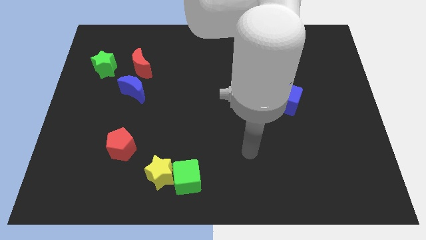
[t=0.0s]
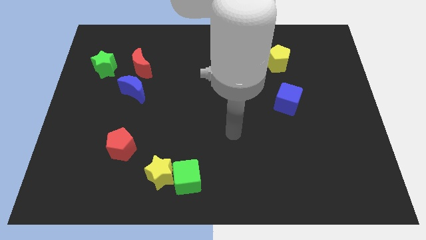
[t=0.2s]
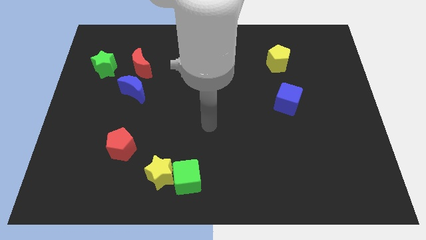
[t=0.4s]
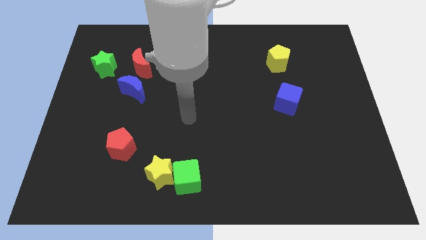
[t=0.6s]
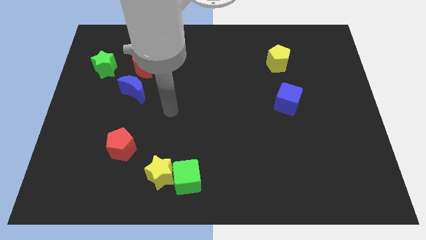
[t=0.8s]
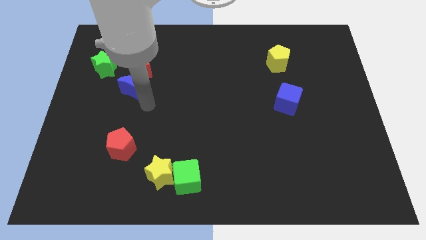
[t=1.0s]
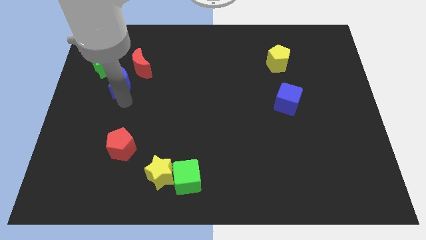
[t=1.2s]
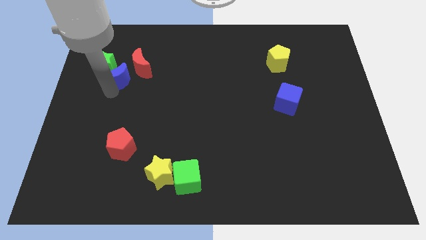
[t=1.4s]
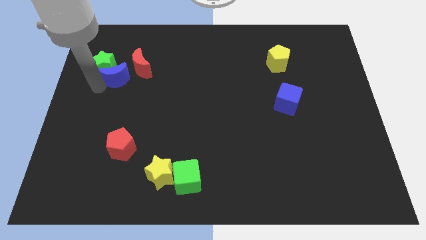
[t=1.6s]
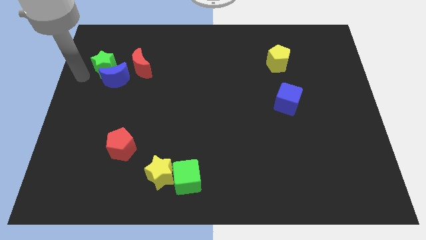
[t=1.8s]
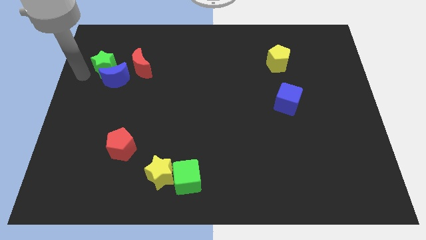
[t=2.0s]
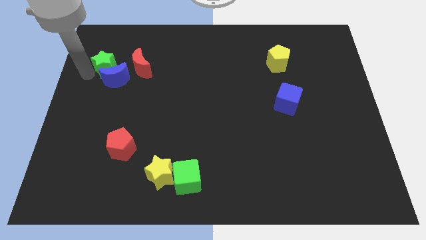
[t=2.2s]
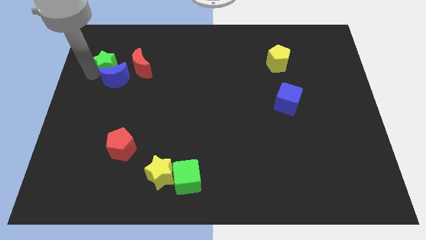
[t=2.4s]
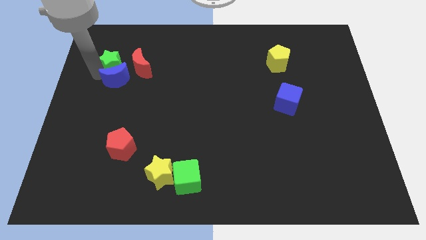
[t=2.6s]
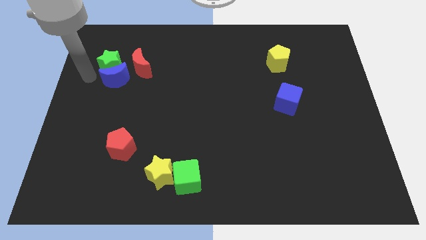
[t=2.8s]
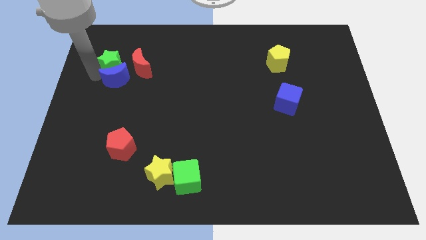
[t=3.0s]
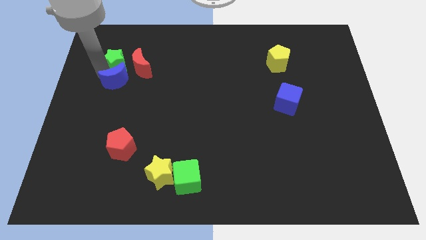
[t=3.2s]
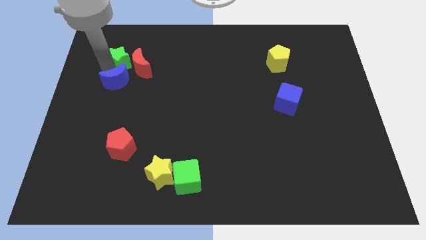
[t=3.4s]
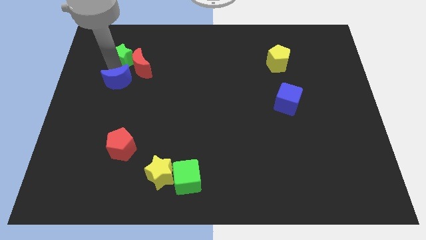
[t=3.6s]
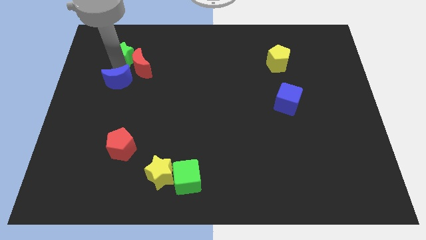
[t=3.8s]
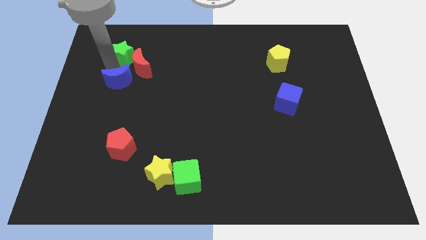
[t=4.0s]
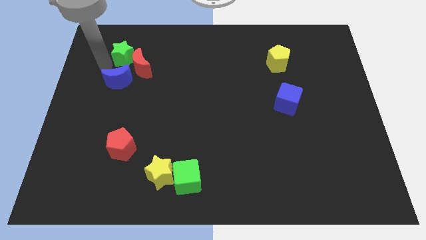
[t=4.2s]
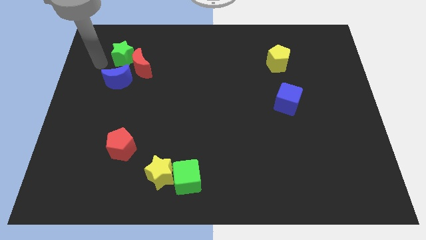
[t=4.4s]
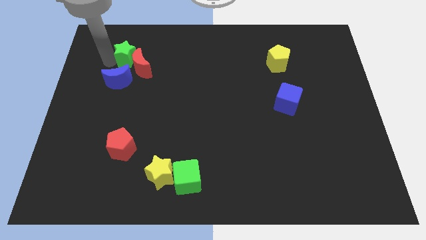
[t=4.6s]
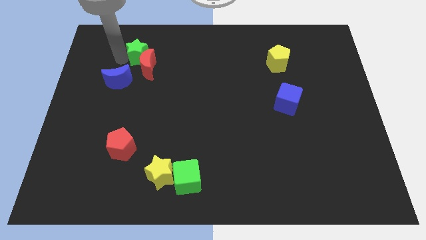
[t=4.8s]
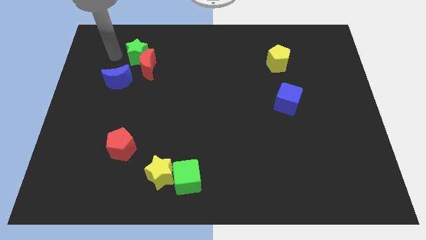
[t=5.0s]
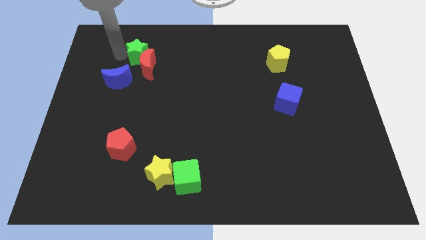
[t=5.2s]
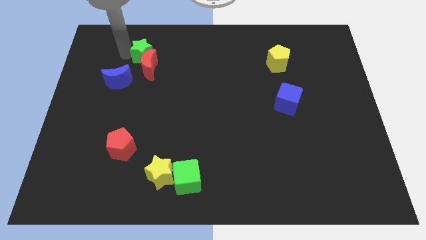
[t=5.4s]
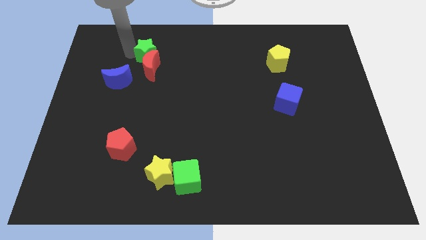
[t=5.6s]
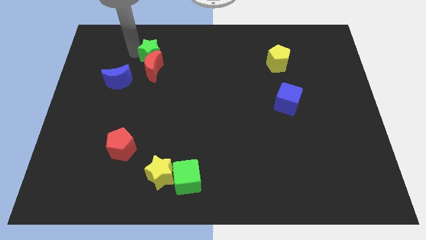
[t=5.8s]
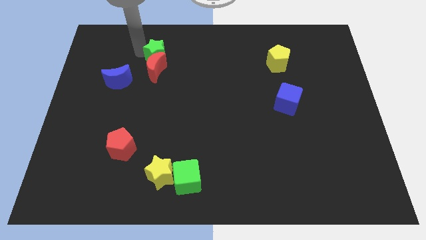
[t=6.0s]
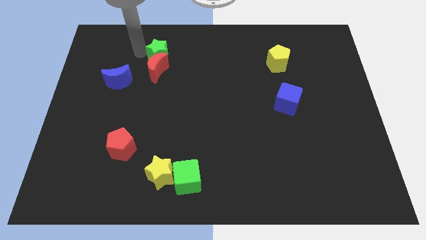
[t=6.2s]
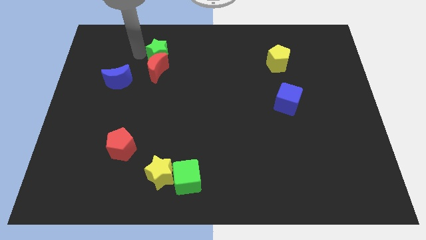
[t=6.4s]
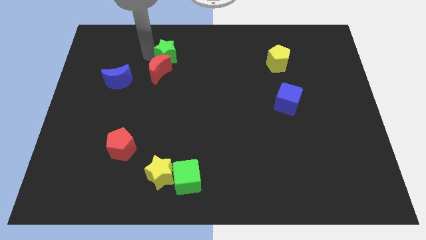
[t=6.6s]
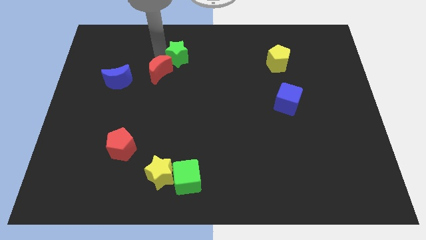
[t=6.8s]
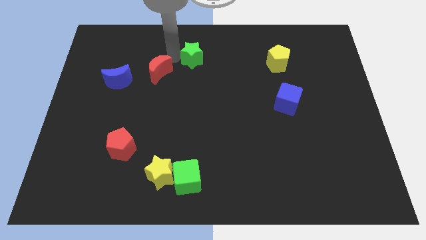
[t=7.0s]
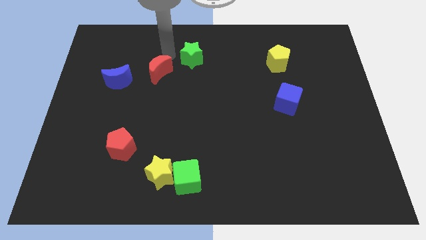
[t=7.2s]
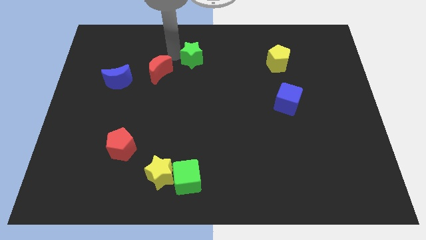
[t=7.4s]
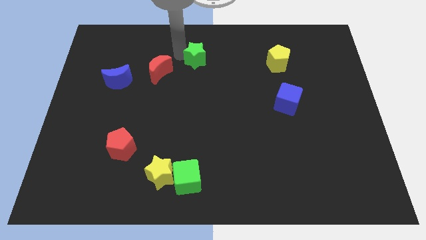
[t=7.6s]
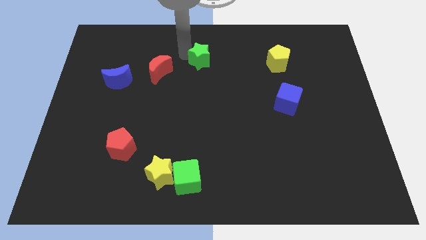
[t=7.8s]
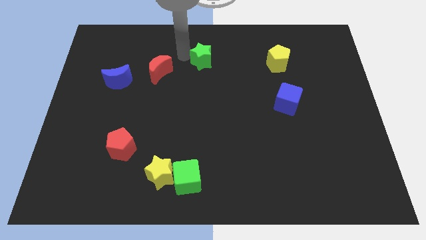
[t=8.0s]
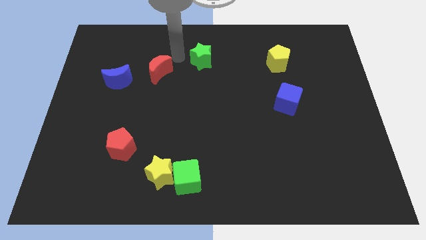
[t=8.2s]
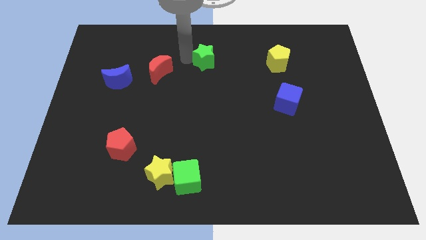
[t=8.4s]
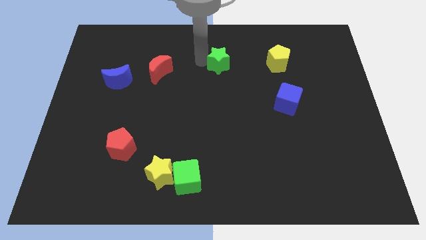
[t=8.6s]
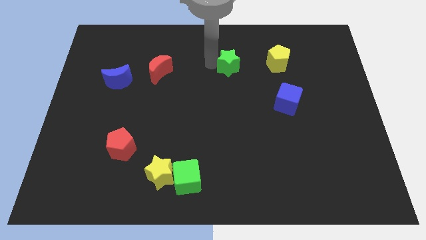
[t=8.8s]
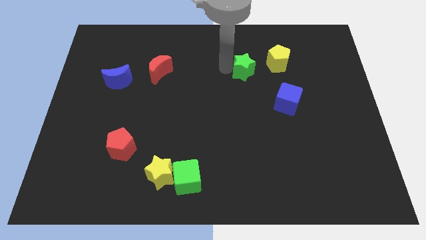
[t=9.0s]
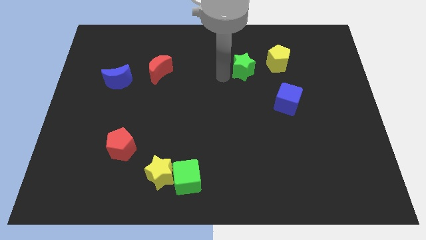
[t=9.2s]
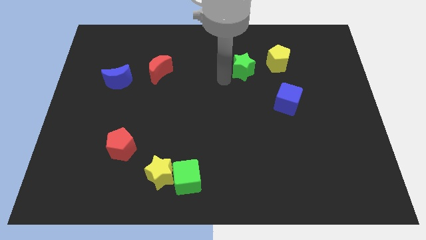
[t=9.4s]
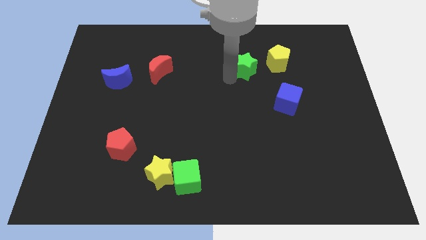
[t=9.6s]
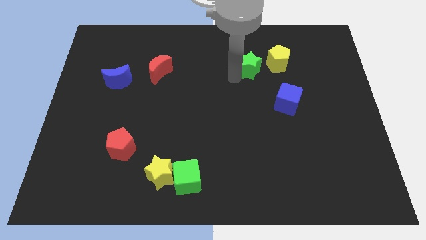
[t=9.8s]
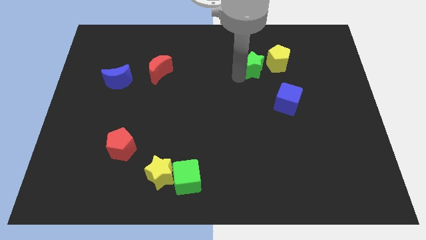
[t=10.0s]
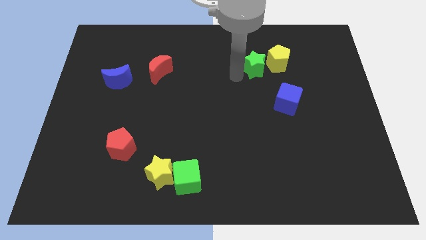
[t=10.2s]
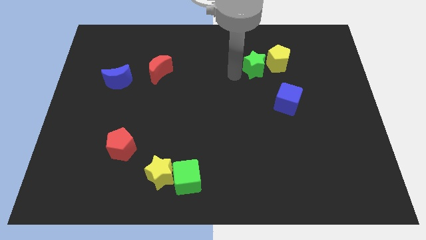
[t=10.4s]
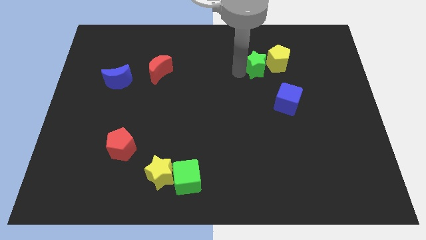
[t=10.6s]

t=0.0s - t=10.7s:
move the green star towards the yellow pentagon

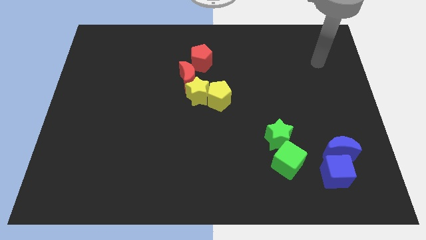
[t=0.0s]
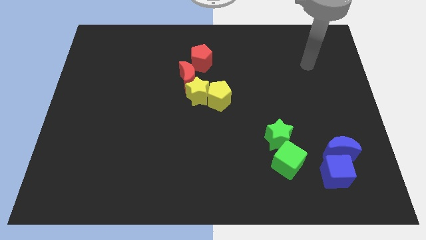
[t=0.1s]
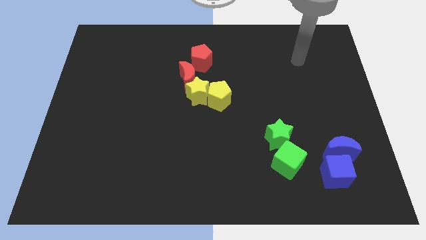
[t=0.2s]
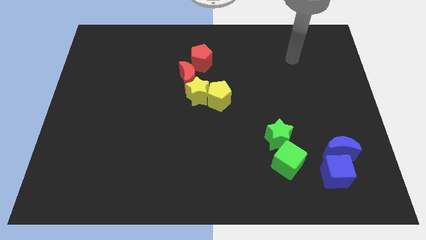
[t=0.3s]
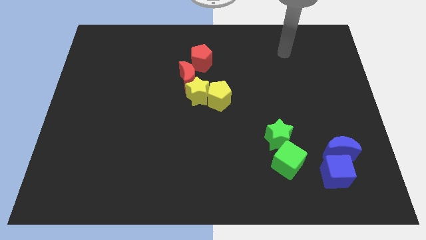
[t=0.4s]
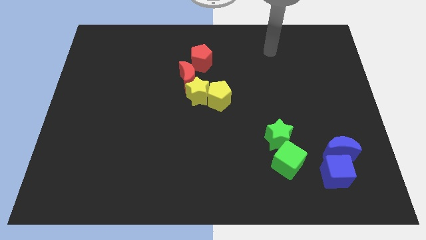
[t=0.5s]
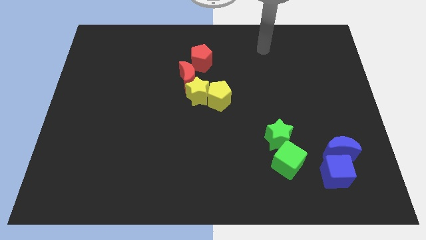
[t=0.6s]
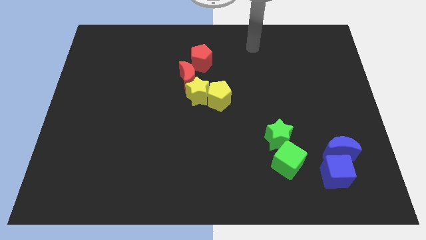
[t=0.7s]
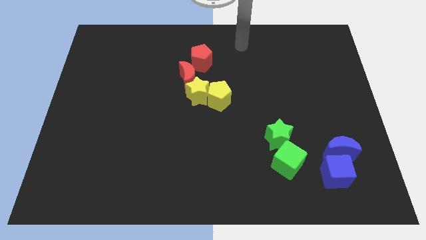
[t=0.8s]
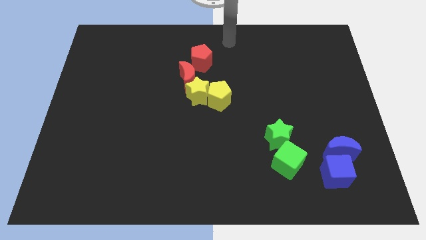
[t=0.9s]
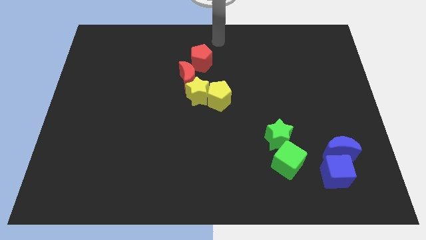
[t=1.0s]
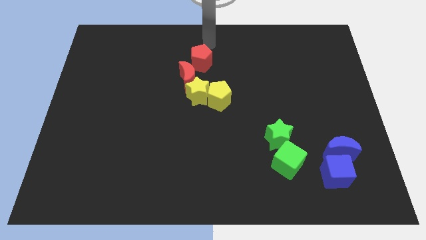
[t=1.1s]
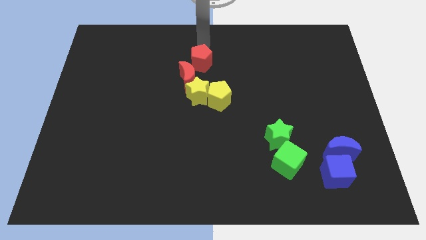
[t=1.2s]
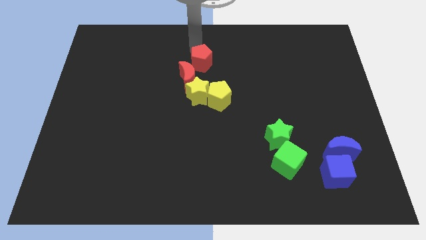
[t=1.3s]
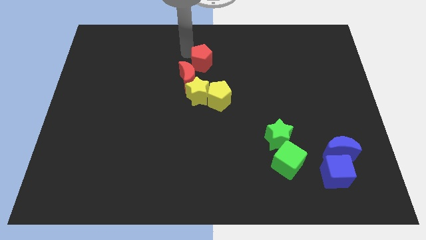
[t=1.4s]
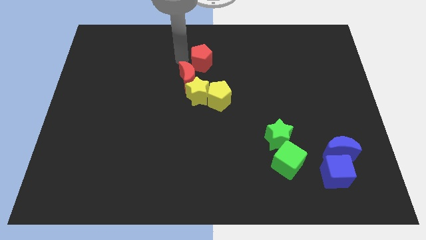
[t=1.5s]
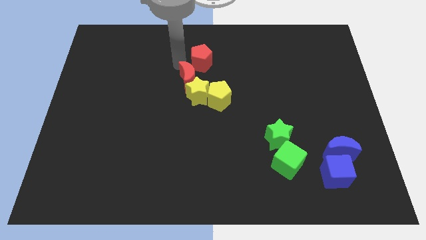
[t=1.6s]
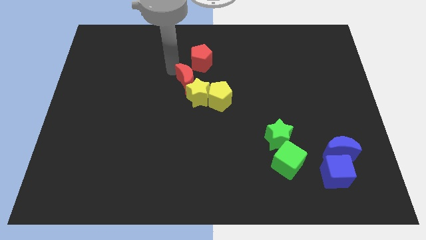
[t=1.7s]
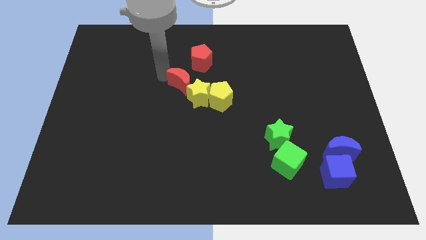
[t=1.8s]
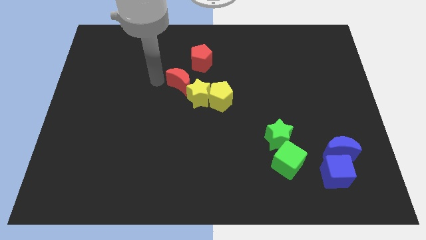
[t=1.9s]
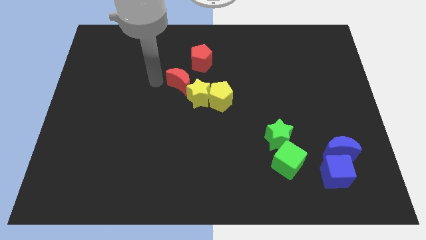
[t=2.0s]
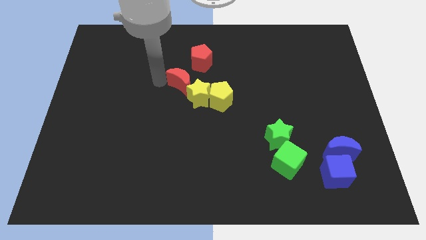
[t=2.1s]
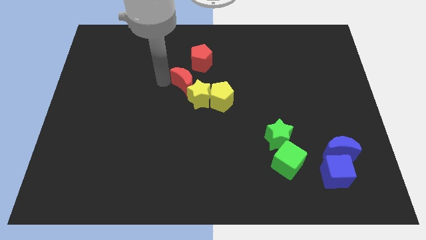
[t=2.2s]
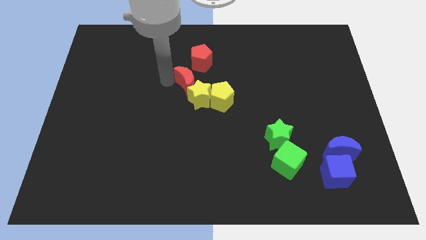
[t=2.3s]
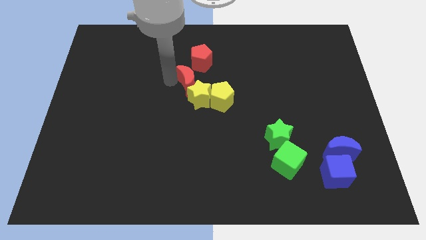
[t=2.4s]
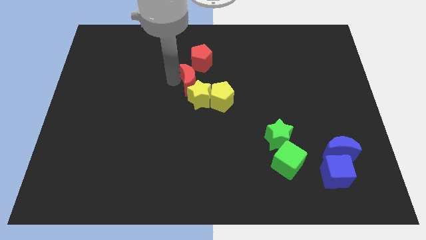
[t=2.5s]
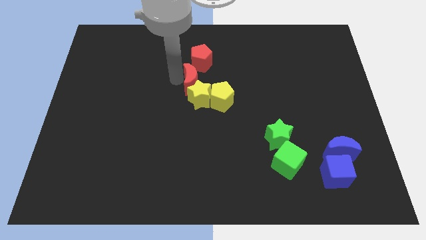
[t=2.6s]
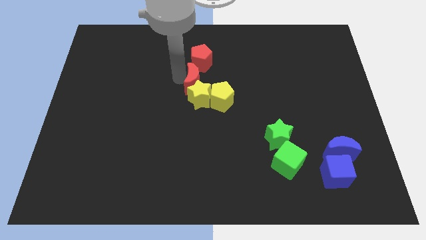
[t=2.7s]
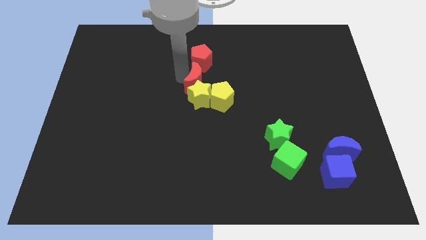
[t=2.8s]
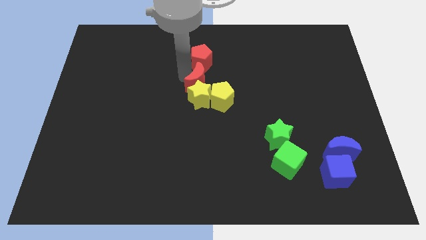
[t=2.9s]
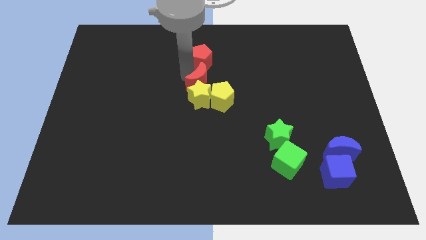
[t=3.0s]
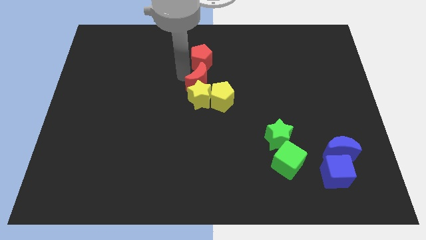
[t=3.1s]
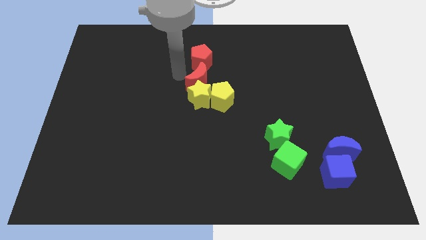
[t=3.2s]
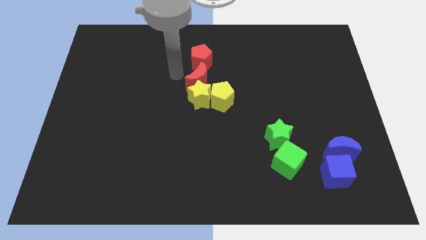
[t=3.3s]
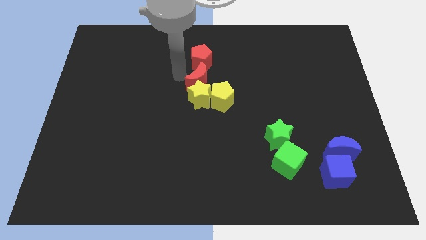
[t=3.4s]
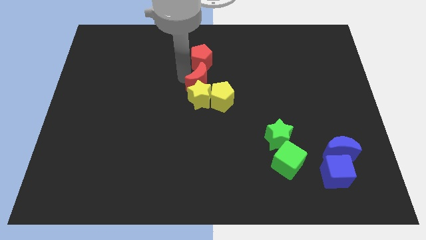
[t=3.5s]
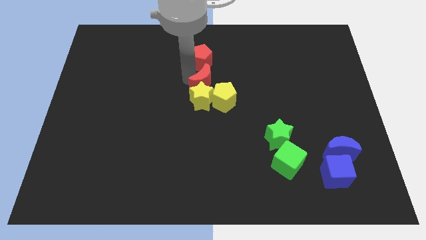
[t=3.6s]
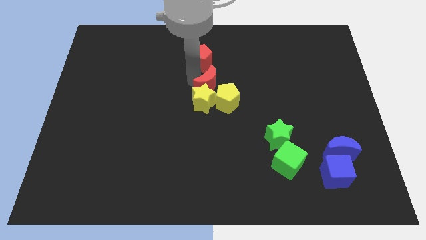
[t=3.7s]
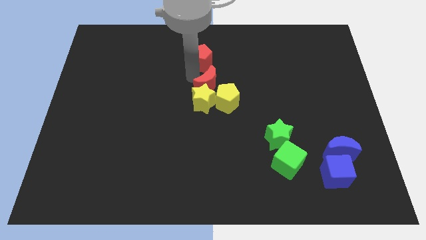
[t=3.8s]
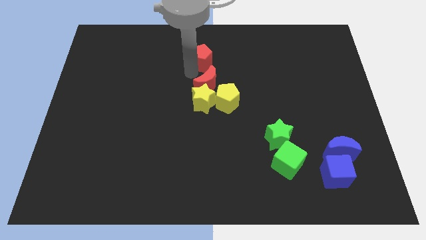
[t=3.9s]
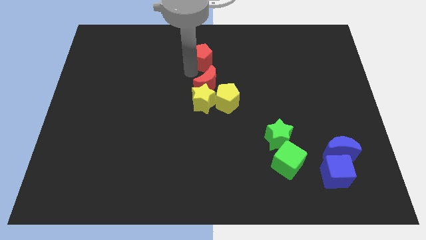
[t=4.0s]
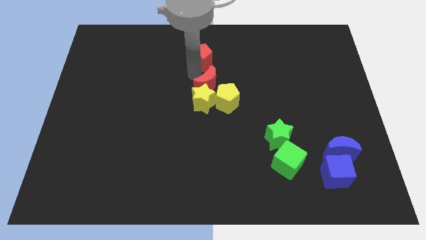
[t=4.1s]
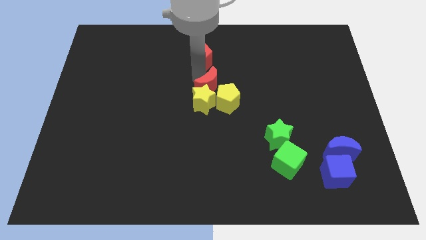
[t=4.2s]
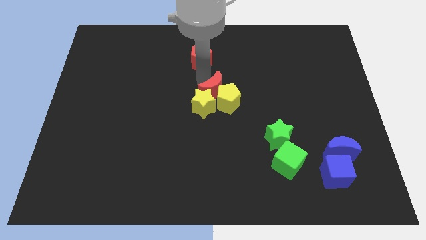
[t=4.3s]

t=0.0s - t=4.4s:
move the red moon to the yellow pentagon
